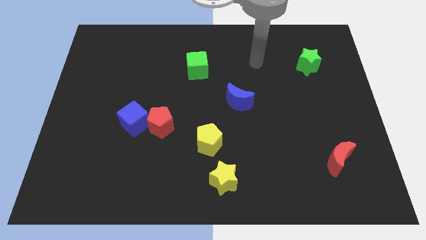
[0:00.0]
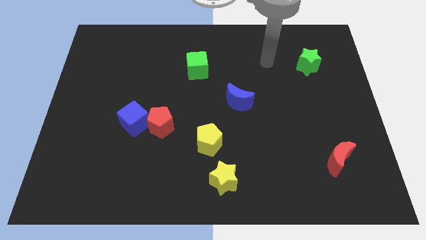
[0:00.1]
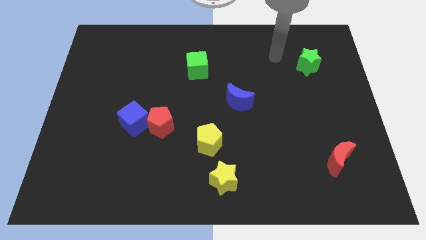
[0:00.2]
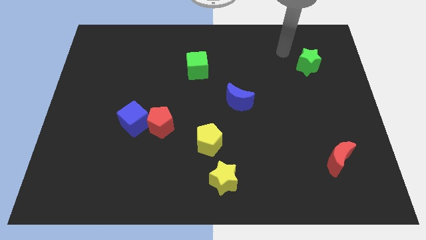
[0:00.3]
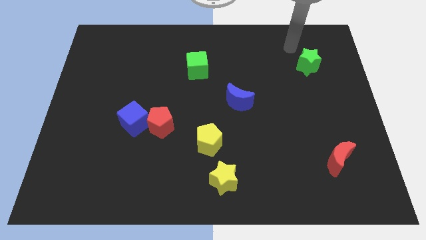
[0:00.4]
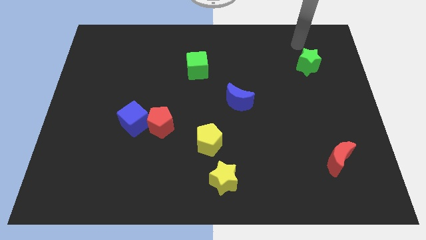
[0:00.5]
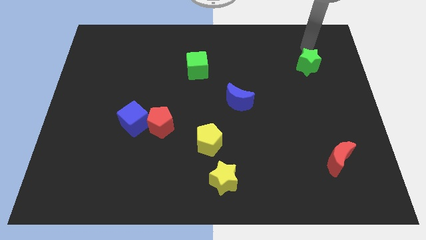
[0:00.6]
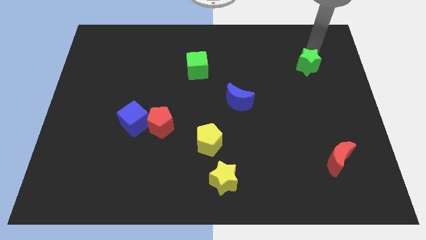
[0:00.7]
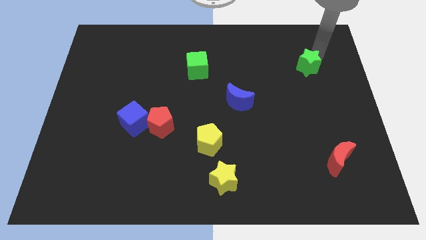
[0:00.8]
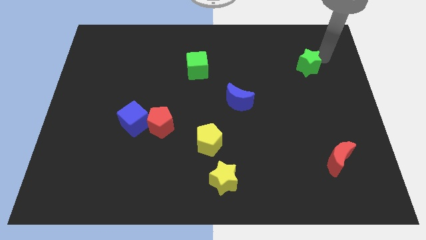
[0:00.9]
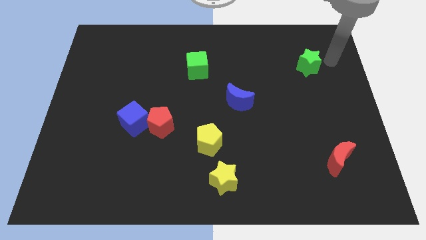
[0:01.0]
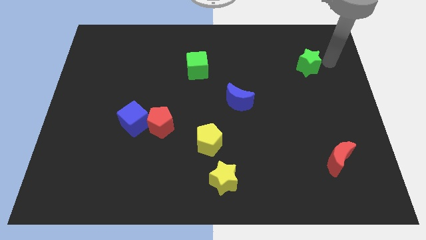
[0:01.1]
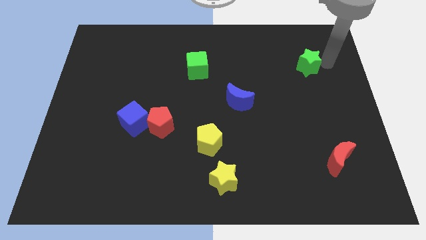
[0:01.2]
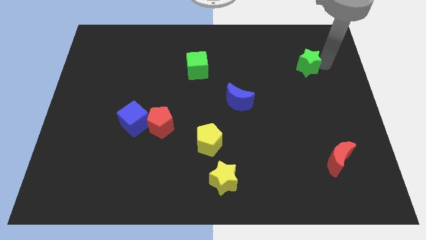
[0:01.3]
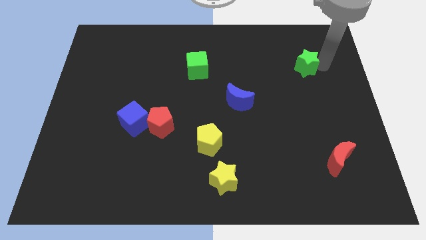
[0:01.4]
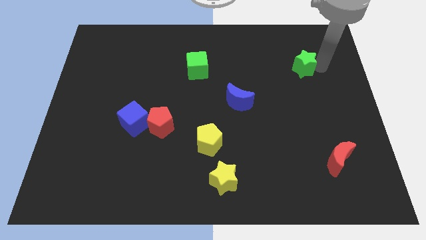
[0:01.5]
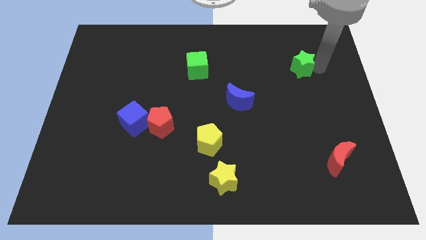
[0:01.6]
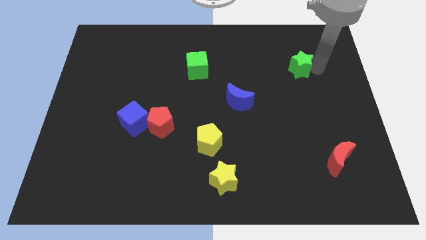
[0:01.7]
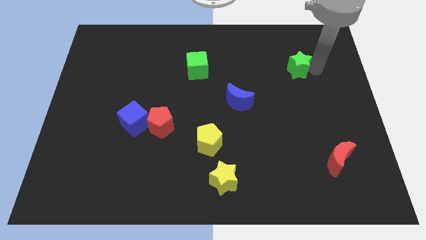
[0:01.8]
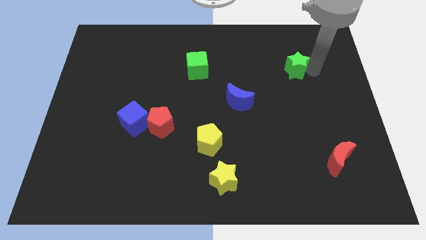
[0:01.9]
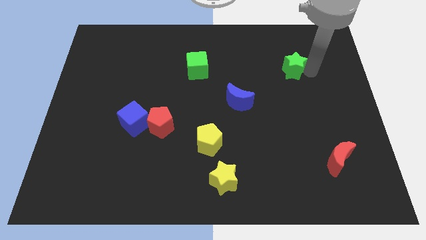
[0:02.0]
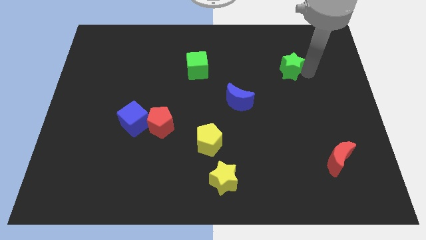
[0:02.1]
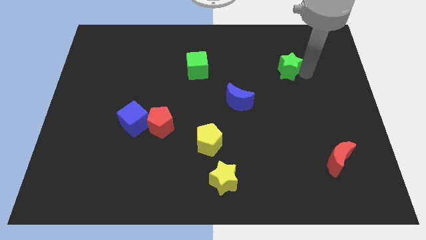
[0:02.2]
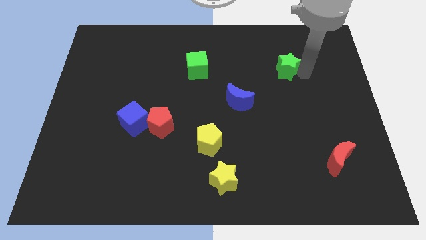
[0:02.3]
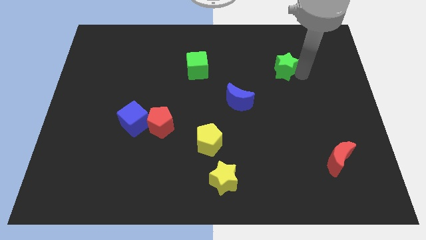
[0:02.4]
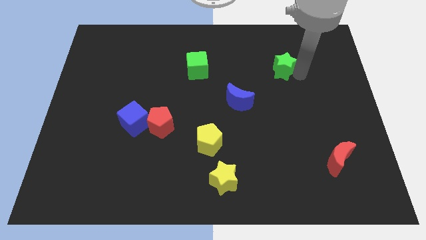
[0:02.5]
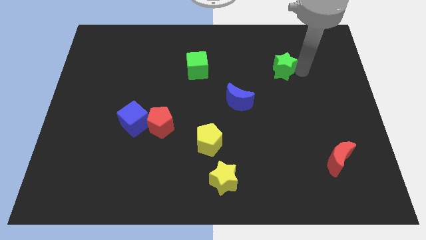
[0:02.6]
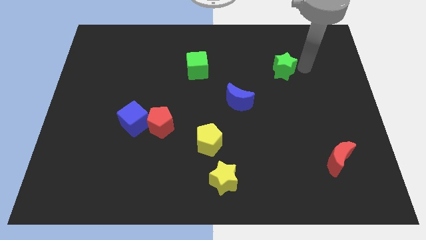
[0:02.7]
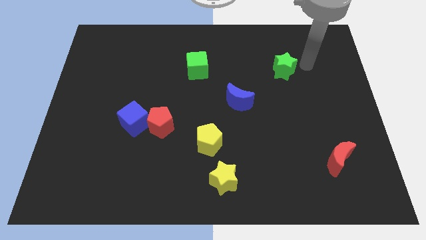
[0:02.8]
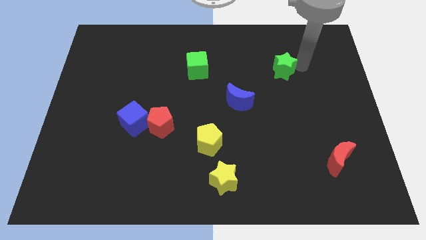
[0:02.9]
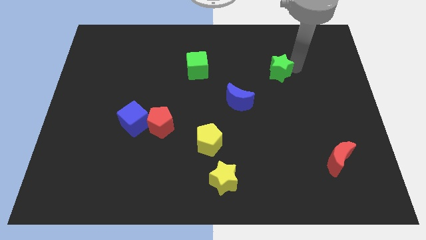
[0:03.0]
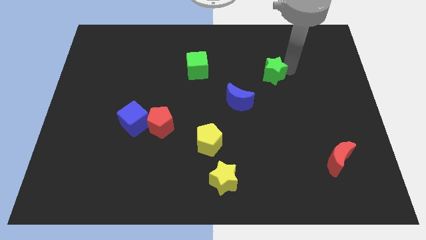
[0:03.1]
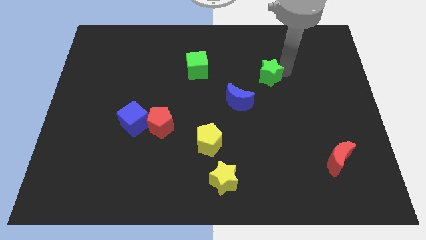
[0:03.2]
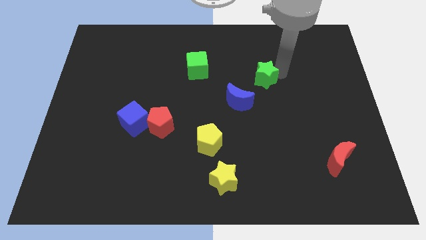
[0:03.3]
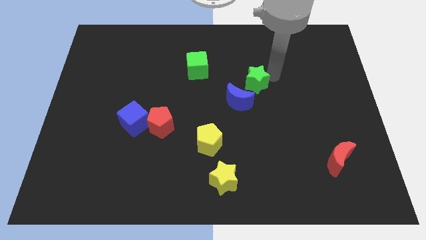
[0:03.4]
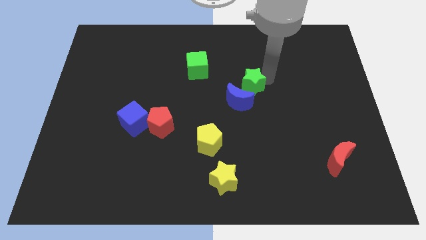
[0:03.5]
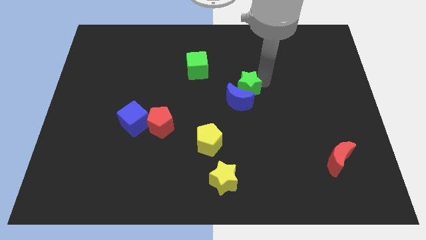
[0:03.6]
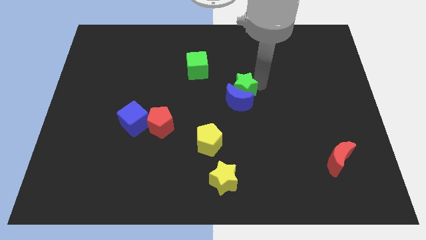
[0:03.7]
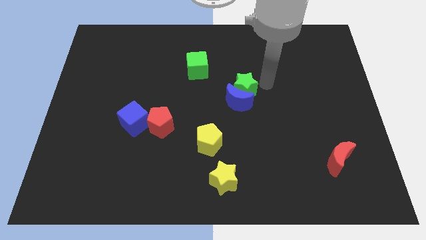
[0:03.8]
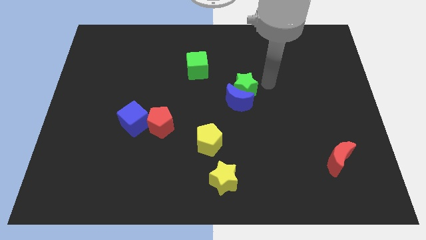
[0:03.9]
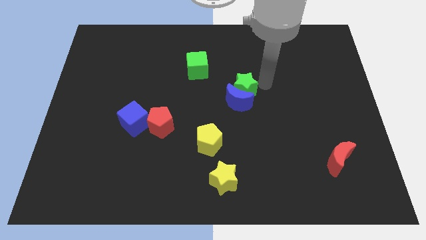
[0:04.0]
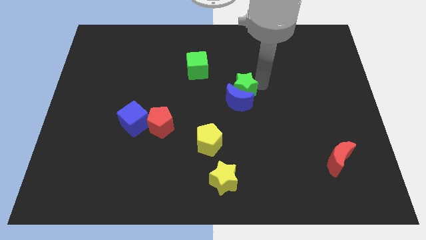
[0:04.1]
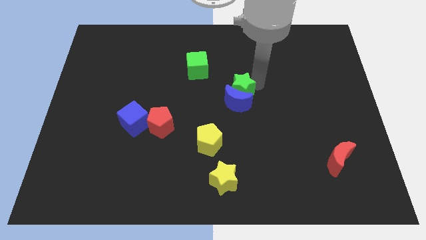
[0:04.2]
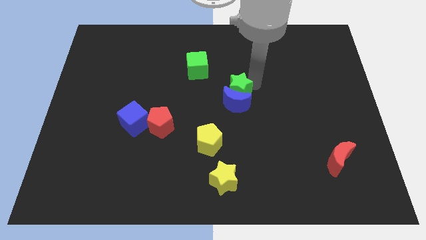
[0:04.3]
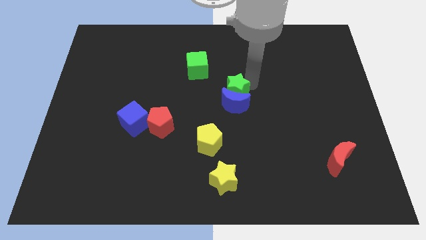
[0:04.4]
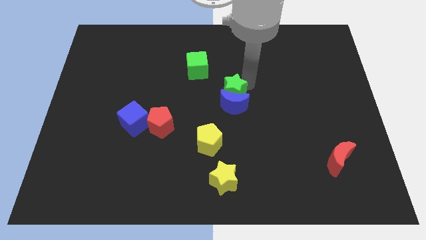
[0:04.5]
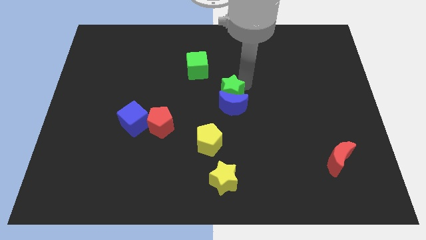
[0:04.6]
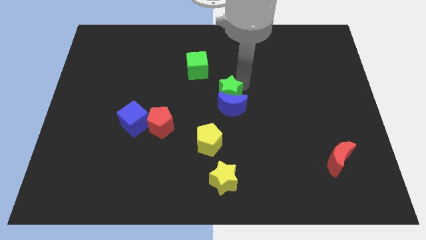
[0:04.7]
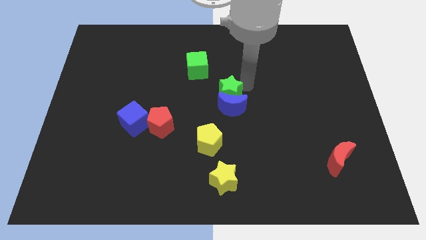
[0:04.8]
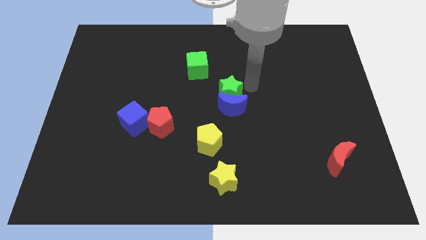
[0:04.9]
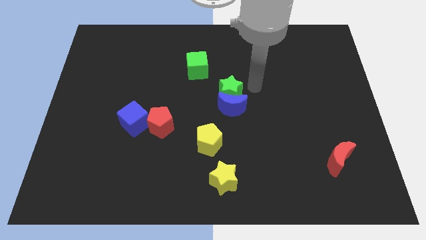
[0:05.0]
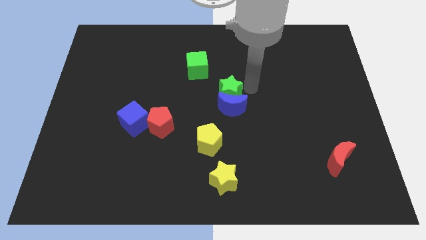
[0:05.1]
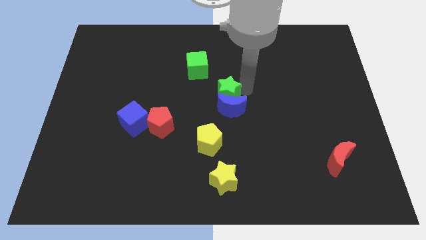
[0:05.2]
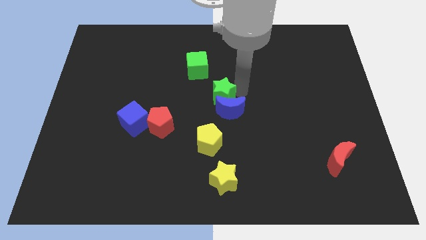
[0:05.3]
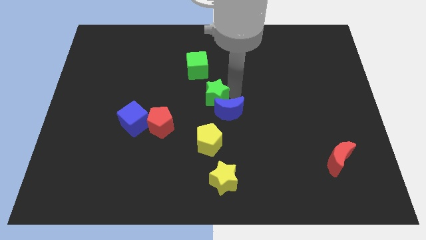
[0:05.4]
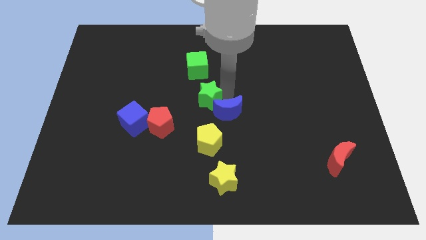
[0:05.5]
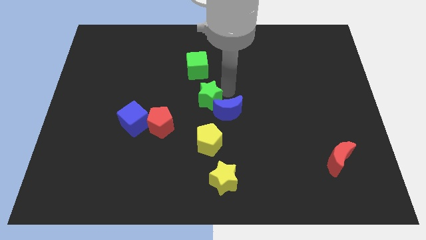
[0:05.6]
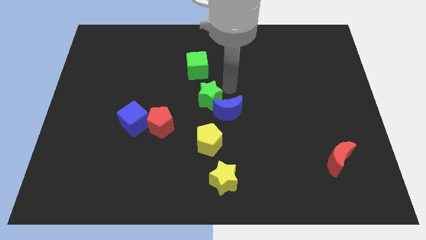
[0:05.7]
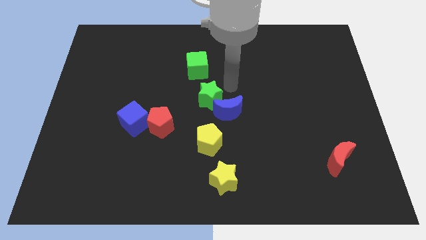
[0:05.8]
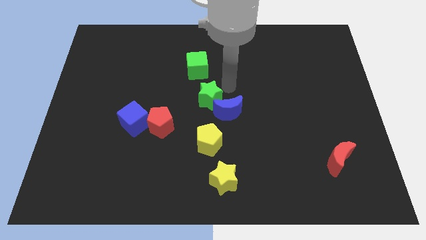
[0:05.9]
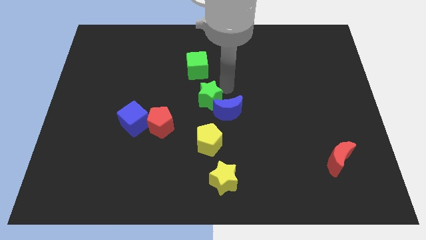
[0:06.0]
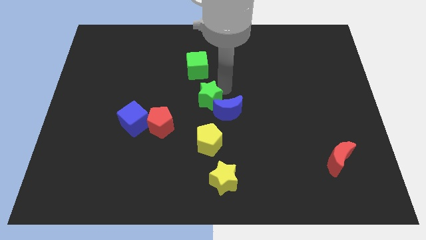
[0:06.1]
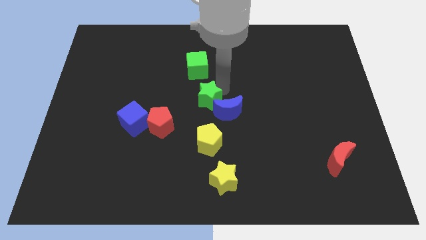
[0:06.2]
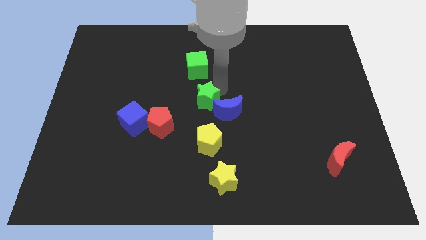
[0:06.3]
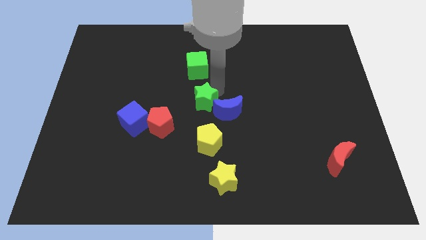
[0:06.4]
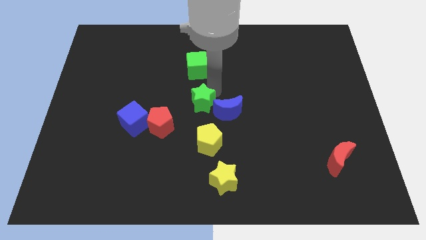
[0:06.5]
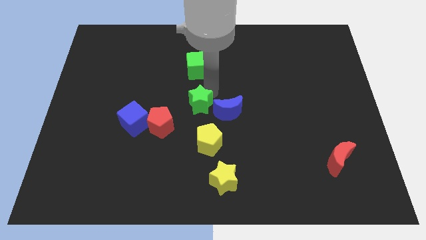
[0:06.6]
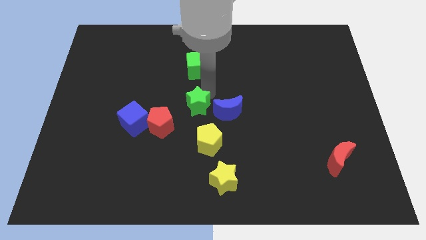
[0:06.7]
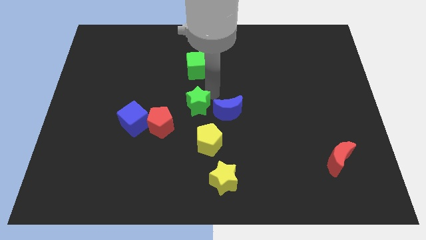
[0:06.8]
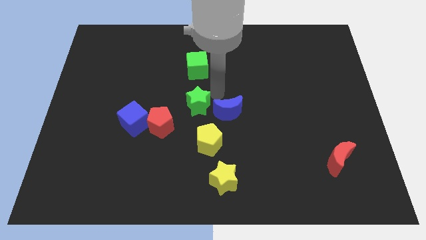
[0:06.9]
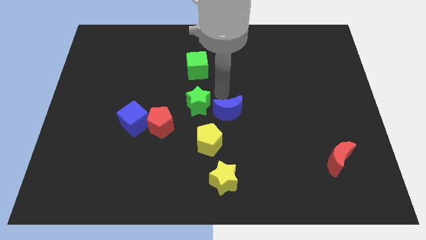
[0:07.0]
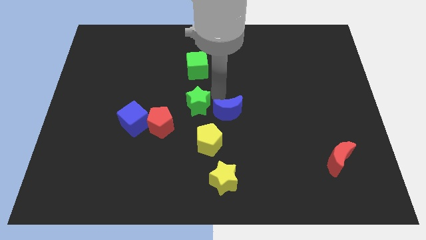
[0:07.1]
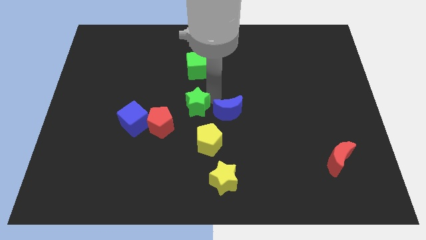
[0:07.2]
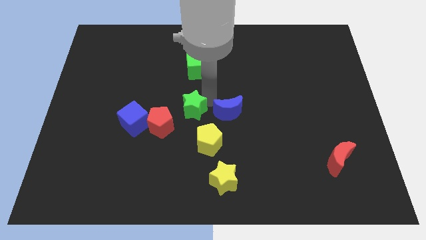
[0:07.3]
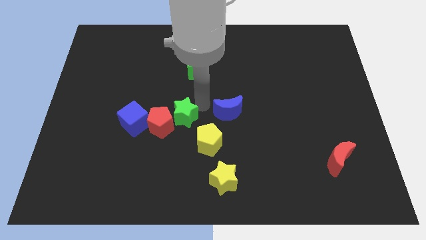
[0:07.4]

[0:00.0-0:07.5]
move the green star towards the red pentagon
